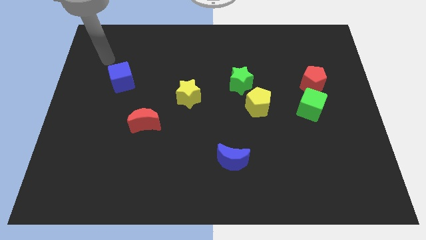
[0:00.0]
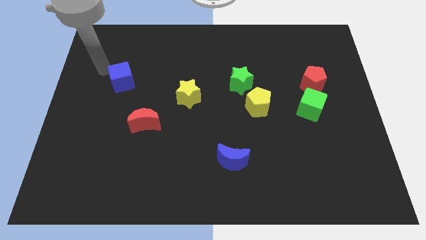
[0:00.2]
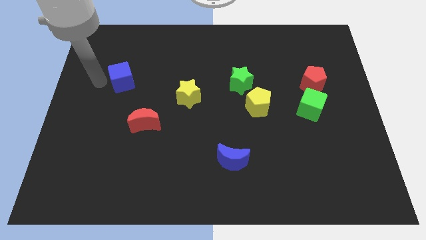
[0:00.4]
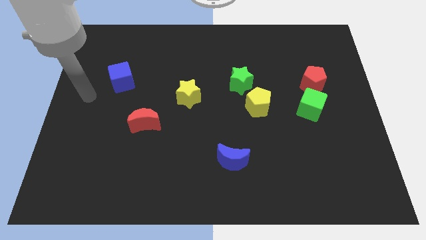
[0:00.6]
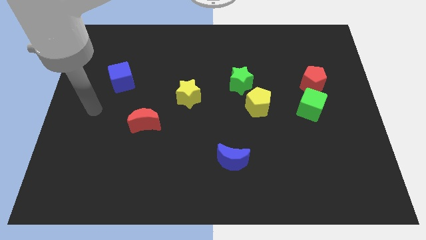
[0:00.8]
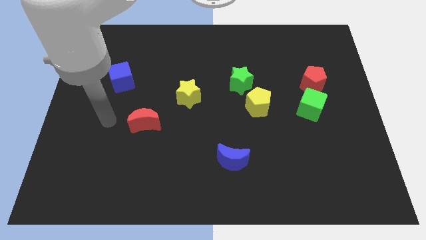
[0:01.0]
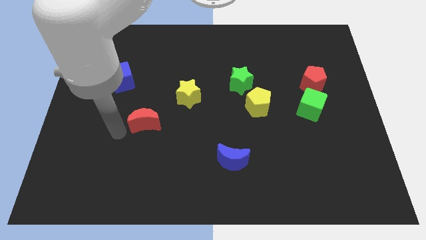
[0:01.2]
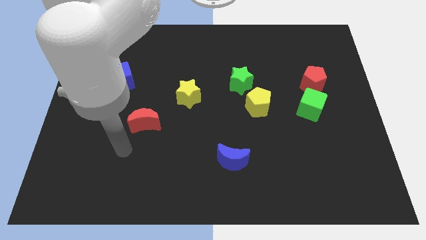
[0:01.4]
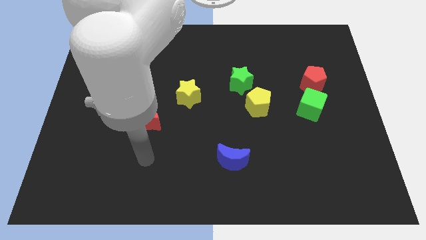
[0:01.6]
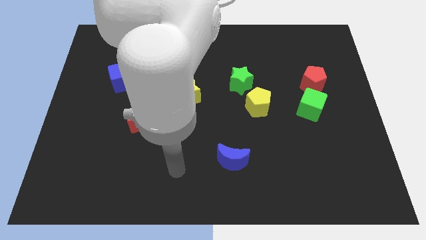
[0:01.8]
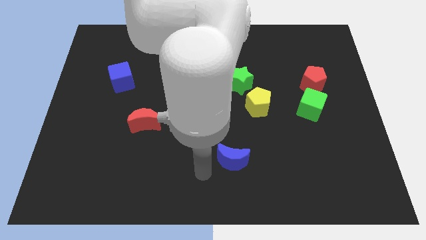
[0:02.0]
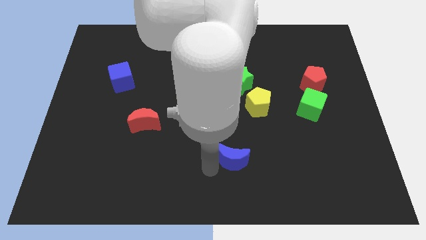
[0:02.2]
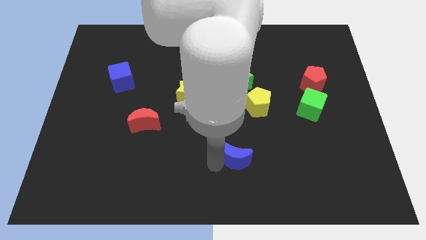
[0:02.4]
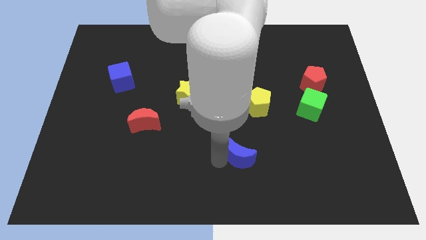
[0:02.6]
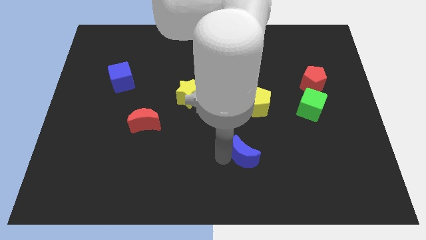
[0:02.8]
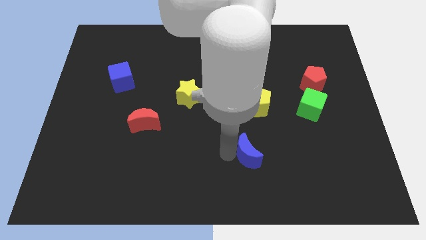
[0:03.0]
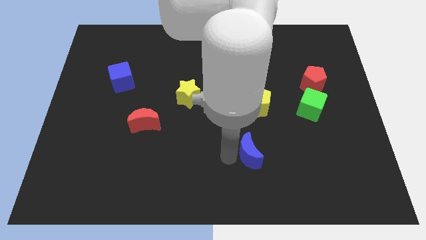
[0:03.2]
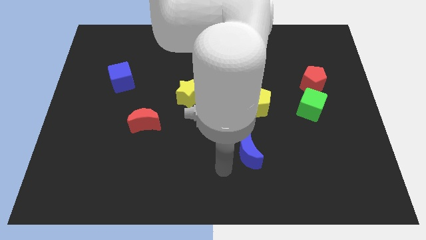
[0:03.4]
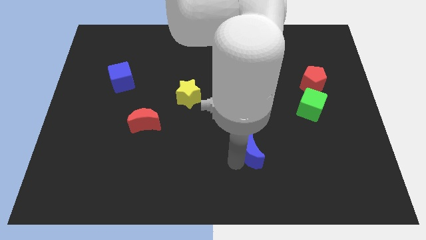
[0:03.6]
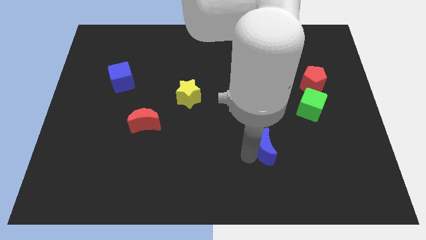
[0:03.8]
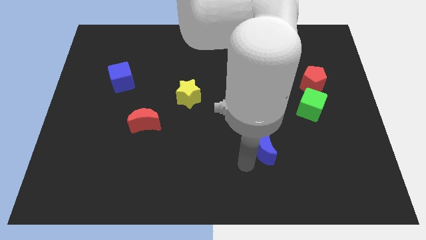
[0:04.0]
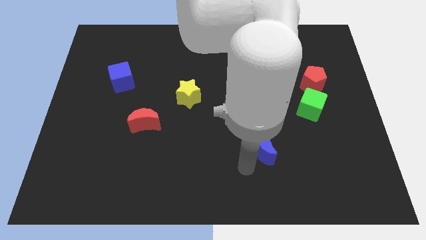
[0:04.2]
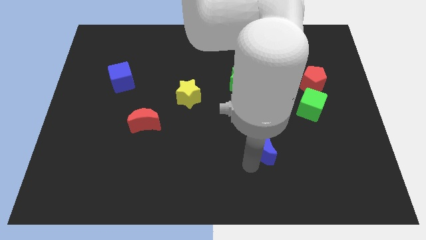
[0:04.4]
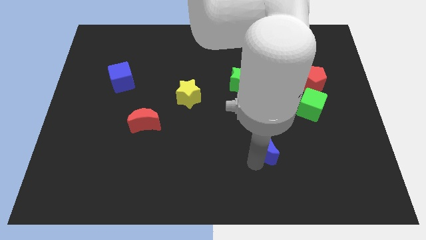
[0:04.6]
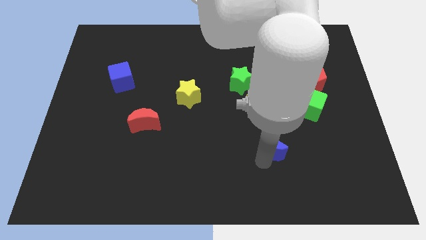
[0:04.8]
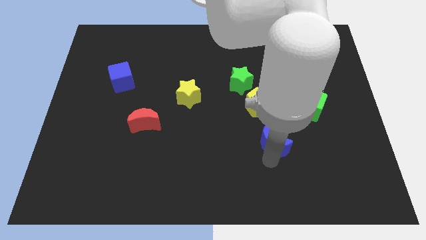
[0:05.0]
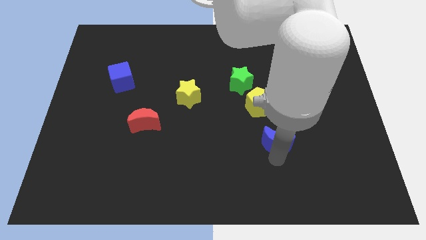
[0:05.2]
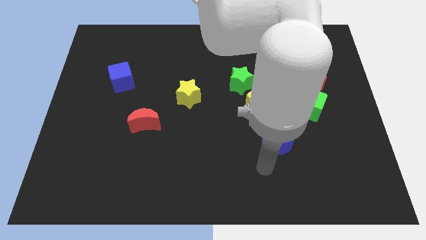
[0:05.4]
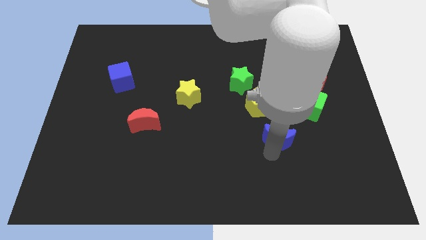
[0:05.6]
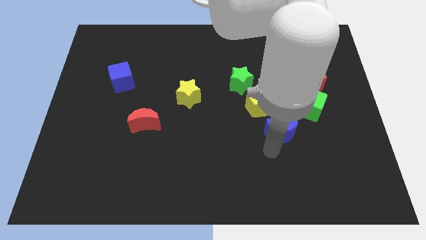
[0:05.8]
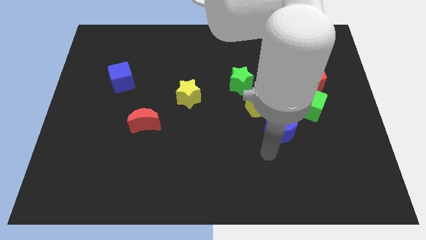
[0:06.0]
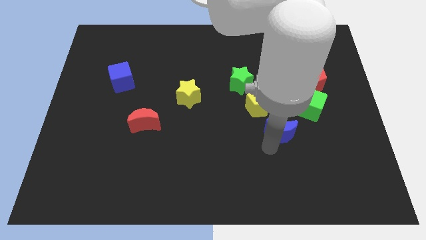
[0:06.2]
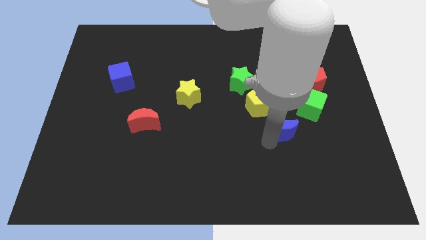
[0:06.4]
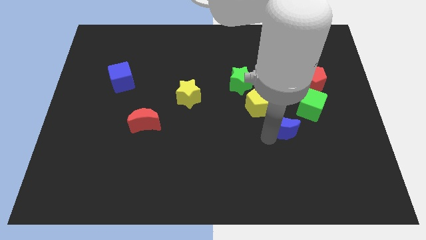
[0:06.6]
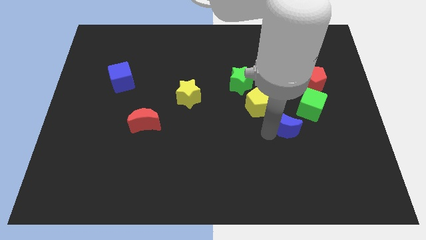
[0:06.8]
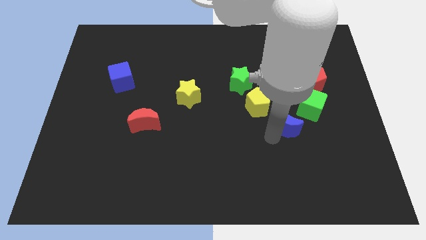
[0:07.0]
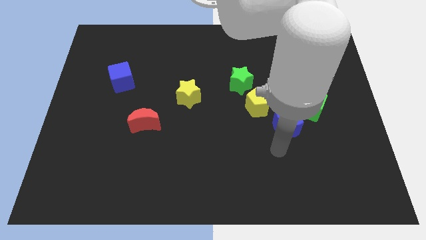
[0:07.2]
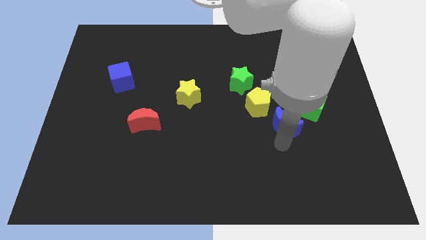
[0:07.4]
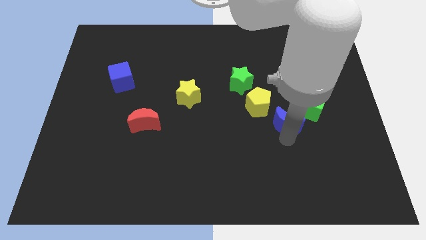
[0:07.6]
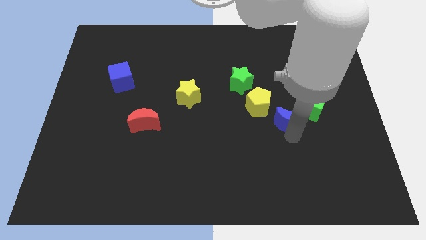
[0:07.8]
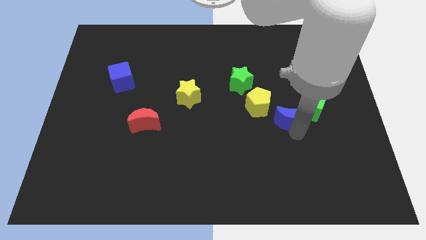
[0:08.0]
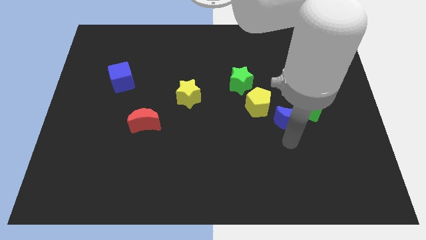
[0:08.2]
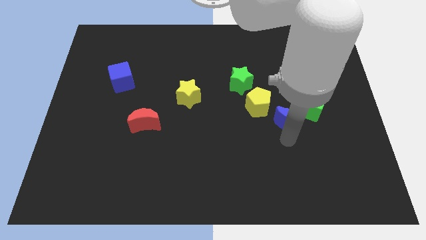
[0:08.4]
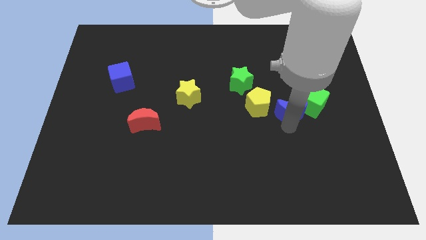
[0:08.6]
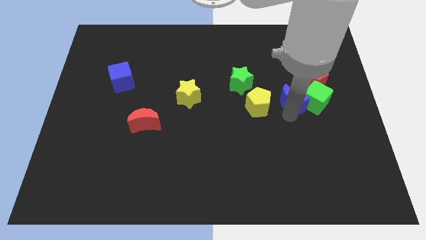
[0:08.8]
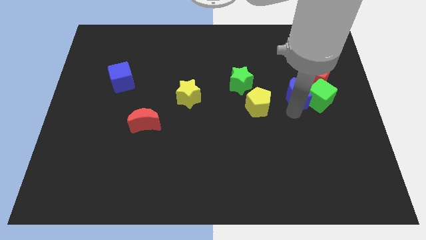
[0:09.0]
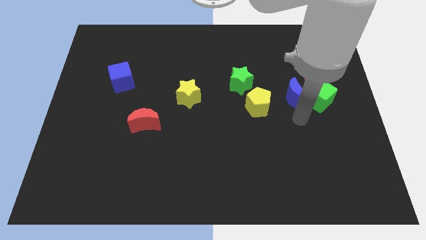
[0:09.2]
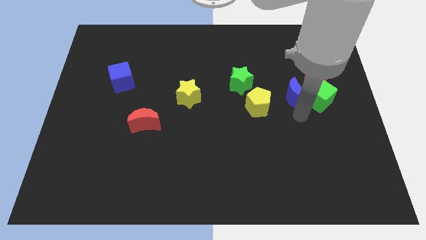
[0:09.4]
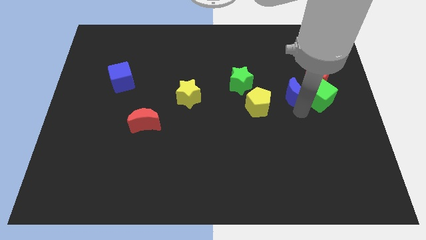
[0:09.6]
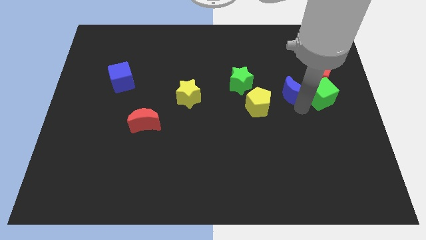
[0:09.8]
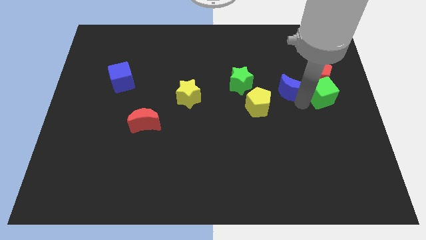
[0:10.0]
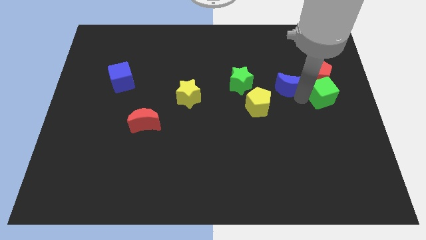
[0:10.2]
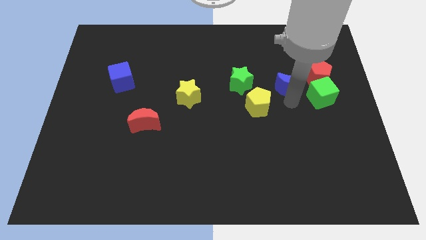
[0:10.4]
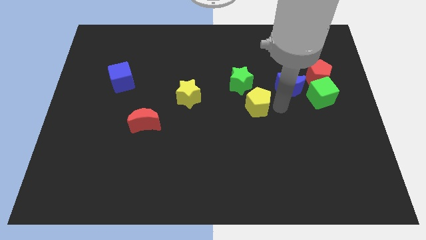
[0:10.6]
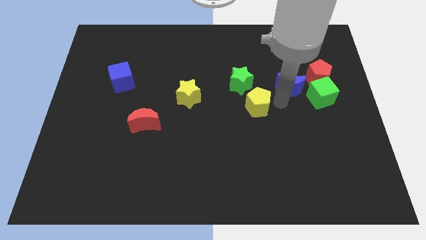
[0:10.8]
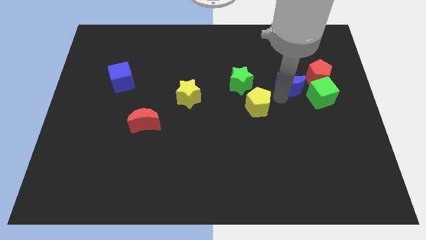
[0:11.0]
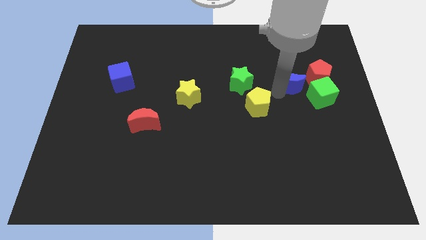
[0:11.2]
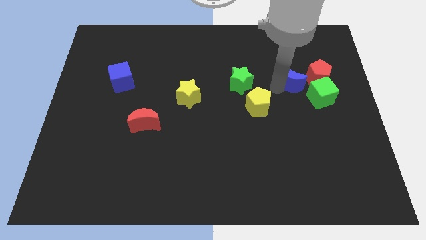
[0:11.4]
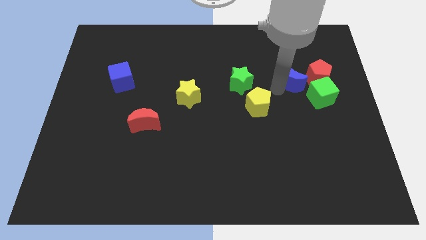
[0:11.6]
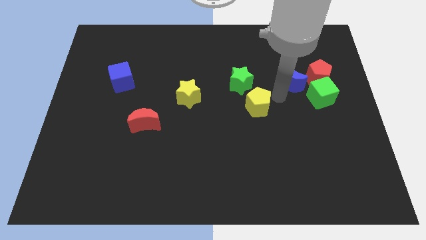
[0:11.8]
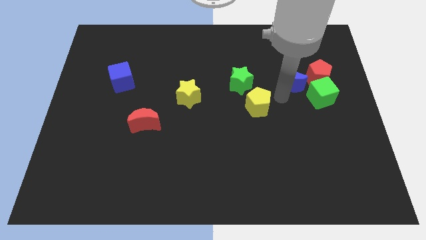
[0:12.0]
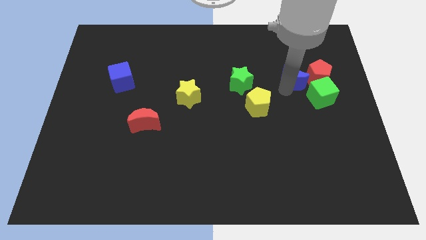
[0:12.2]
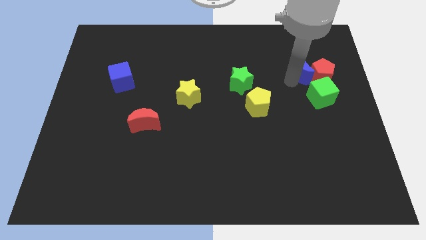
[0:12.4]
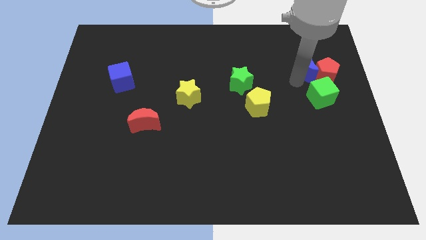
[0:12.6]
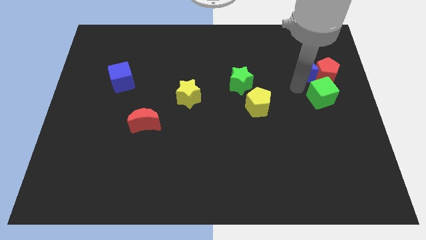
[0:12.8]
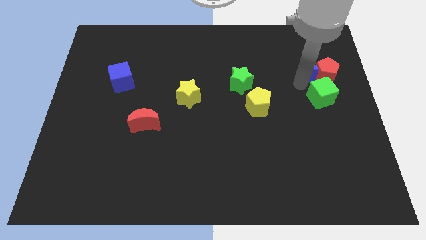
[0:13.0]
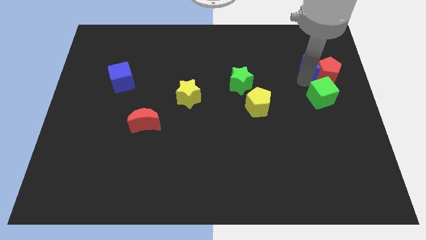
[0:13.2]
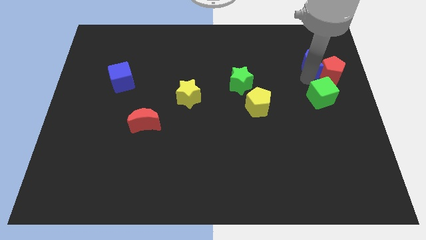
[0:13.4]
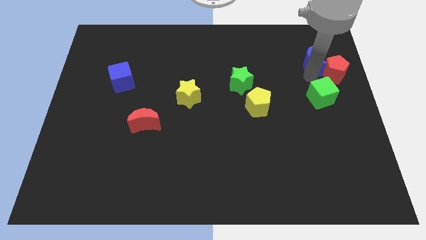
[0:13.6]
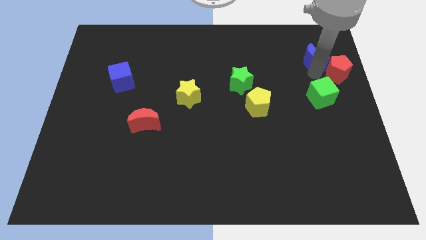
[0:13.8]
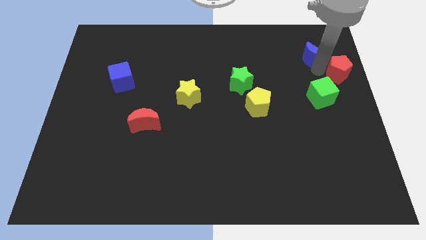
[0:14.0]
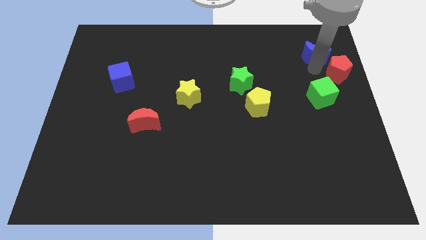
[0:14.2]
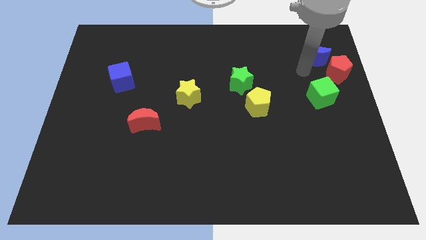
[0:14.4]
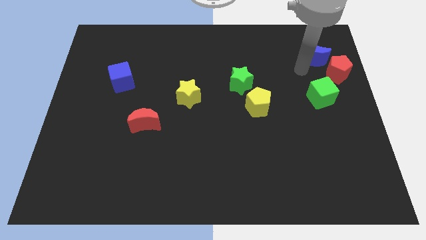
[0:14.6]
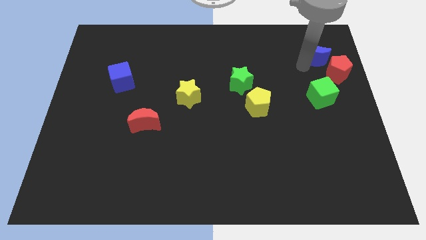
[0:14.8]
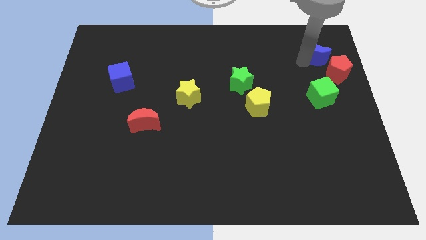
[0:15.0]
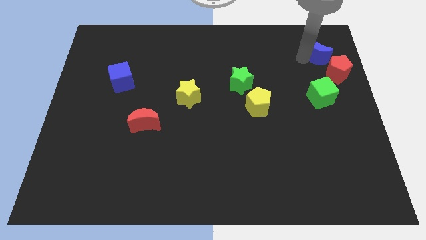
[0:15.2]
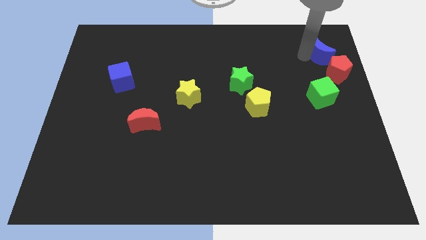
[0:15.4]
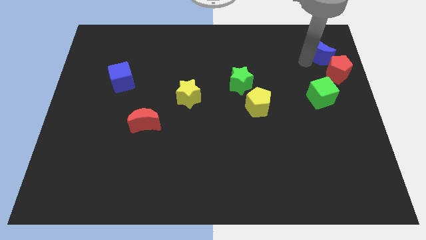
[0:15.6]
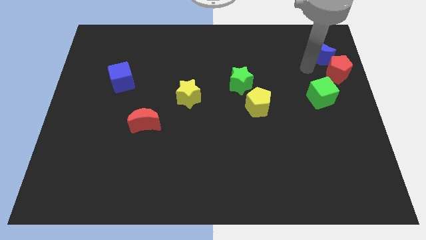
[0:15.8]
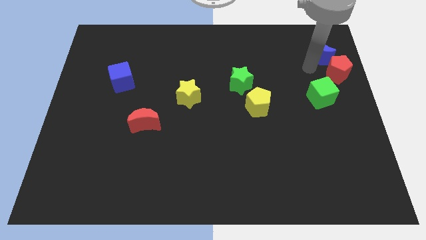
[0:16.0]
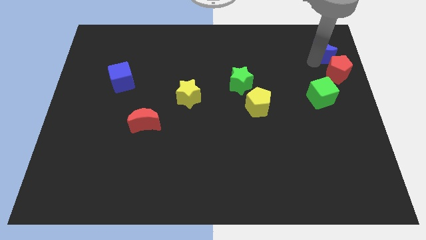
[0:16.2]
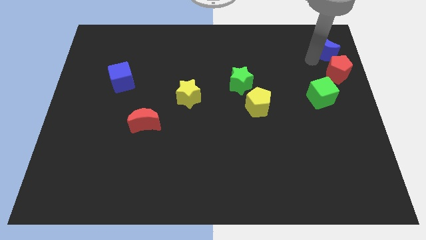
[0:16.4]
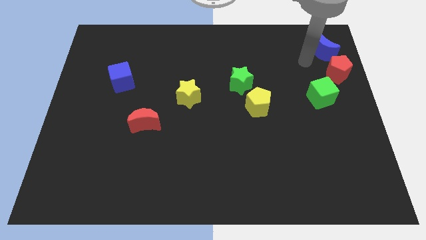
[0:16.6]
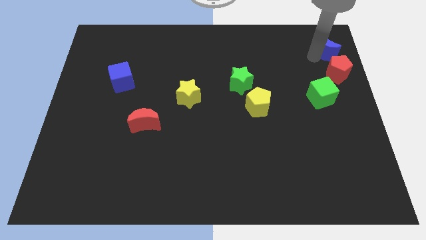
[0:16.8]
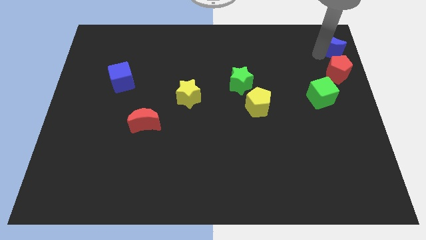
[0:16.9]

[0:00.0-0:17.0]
slide the blue moon to the upper right corner
